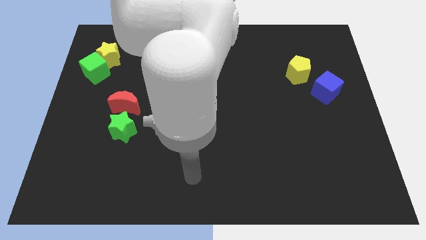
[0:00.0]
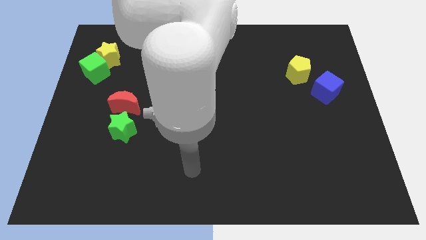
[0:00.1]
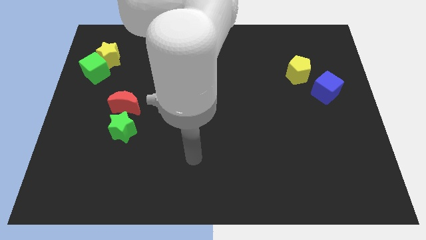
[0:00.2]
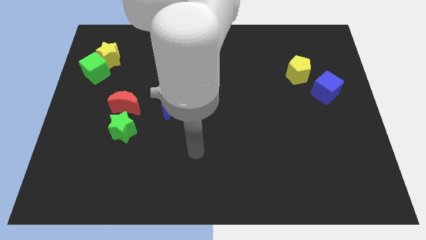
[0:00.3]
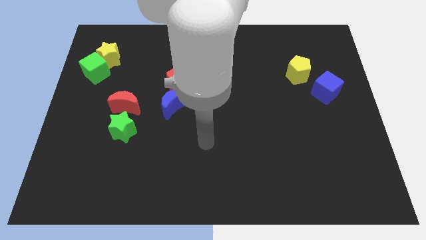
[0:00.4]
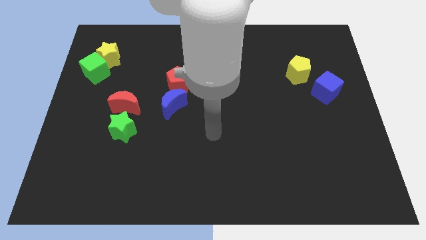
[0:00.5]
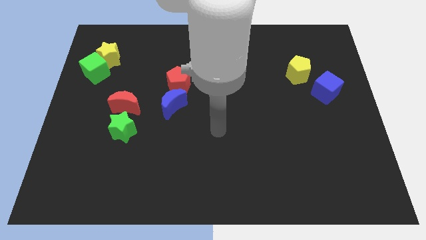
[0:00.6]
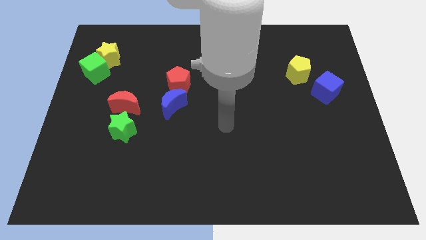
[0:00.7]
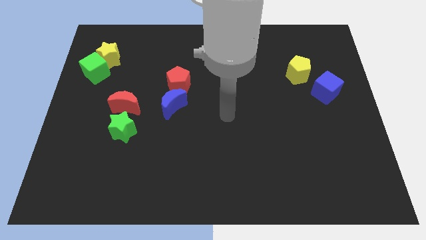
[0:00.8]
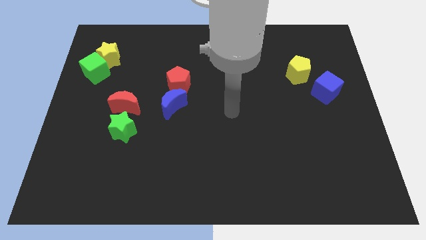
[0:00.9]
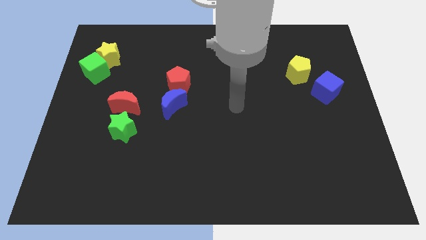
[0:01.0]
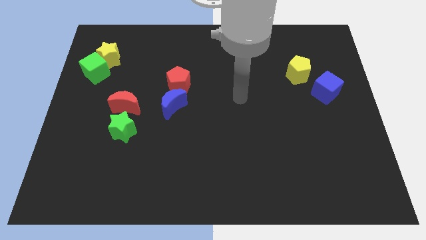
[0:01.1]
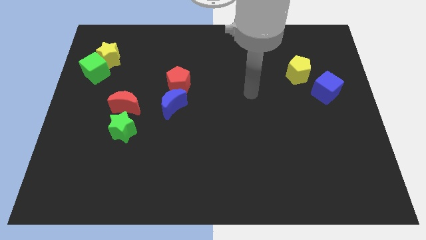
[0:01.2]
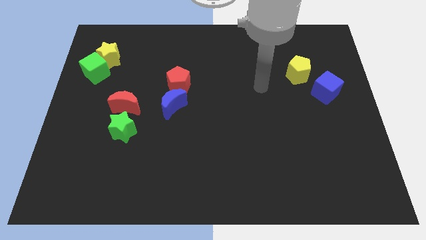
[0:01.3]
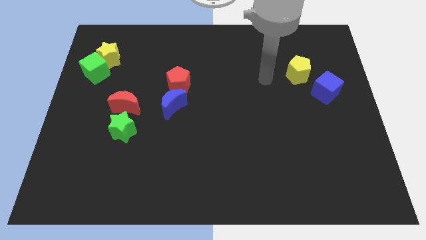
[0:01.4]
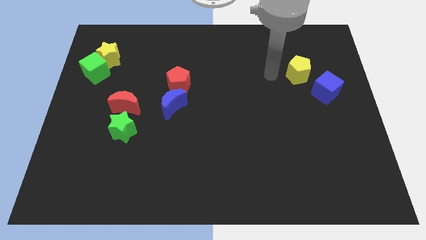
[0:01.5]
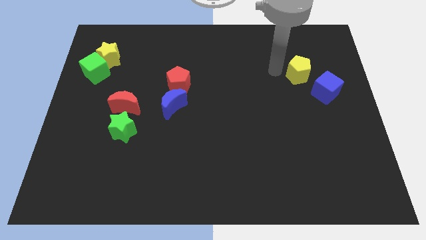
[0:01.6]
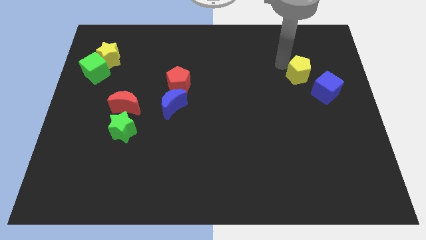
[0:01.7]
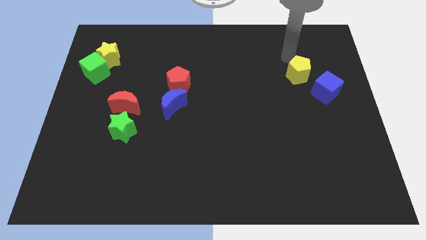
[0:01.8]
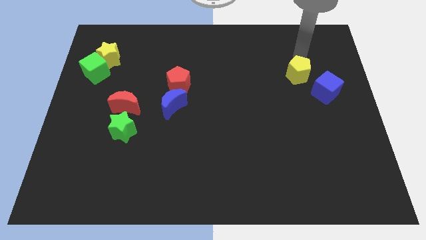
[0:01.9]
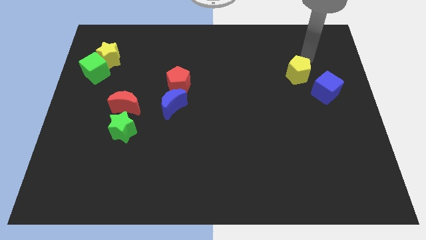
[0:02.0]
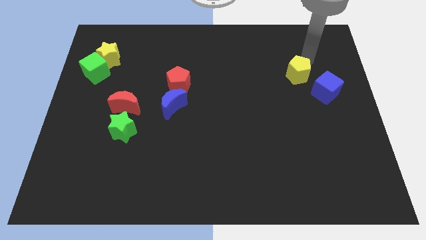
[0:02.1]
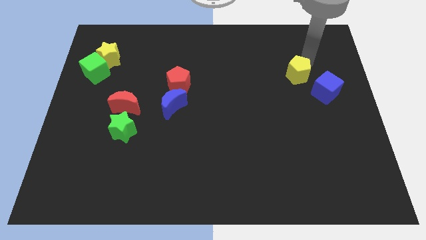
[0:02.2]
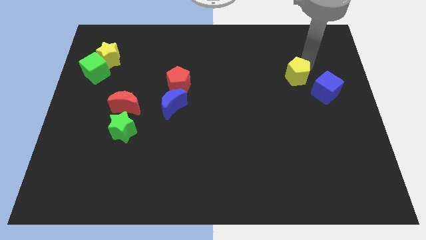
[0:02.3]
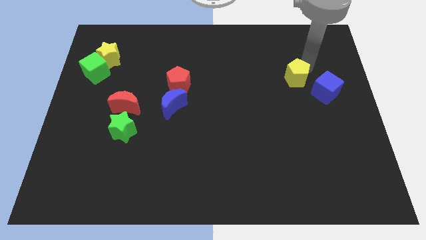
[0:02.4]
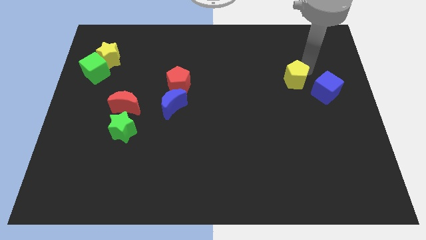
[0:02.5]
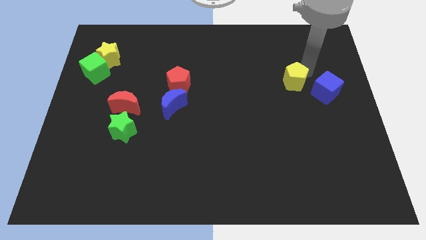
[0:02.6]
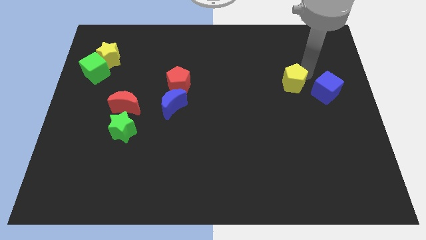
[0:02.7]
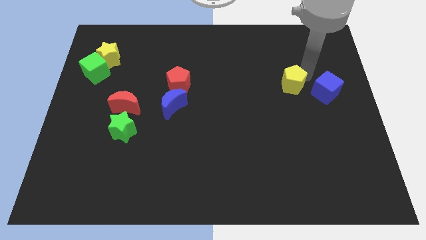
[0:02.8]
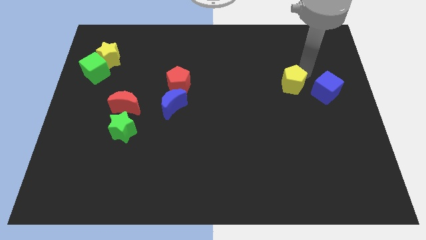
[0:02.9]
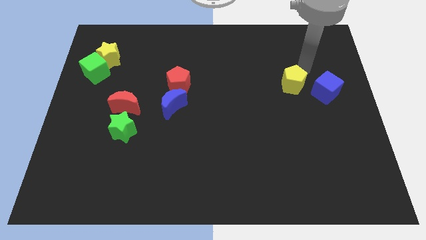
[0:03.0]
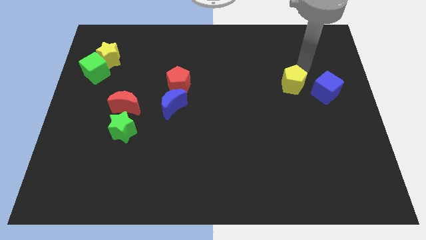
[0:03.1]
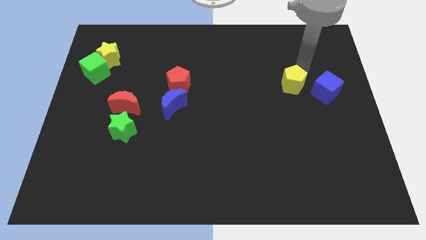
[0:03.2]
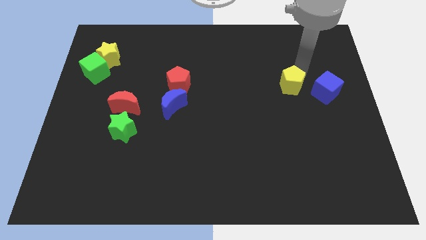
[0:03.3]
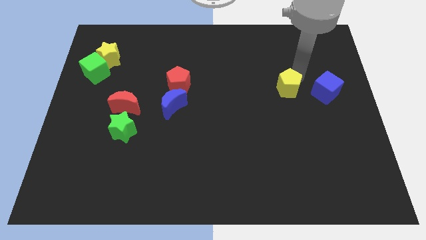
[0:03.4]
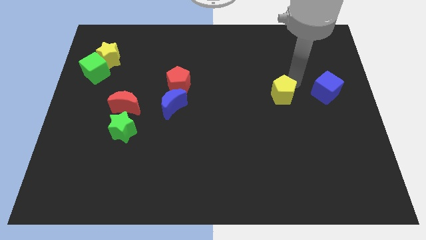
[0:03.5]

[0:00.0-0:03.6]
push the yellow pentagon somewhat down and left diagonally

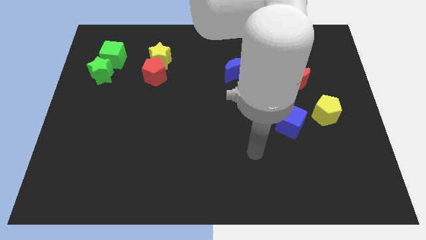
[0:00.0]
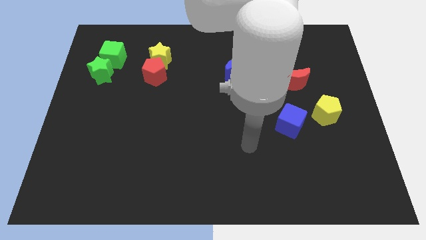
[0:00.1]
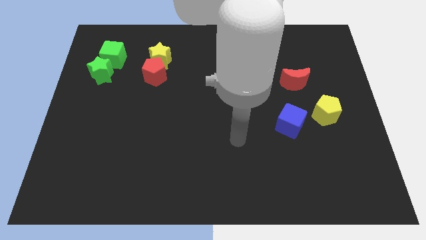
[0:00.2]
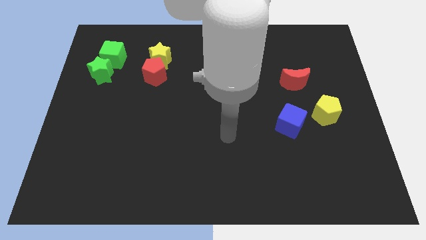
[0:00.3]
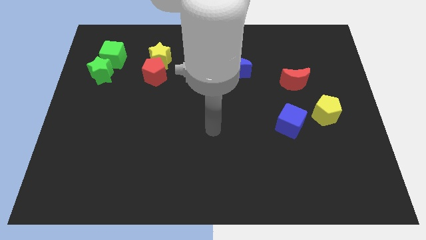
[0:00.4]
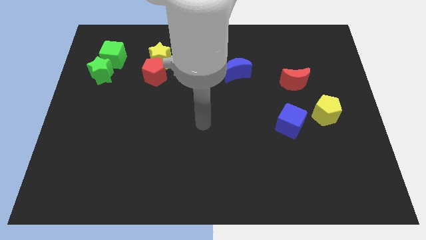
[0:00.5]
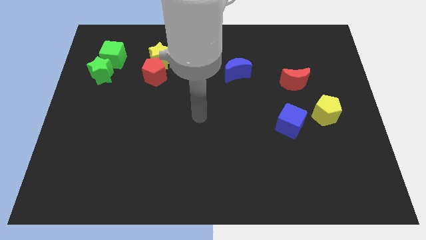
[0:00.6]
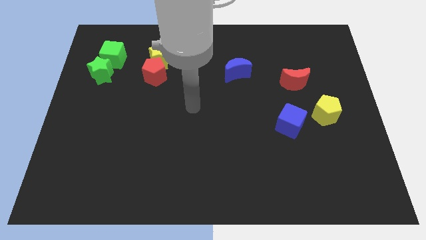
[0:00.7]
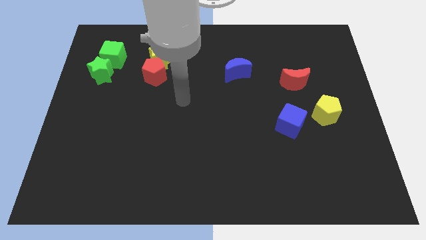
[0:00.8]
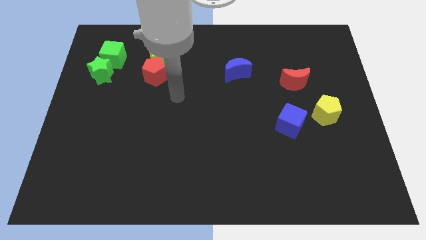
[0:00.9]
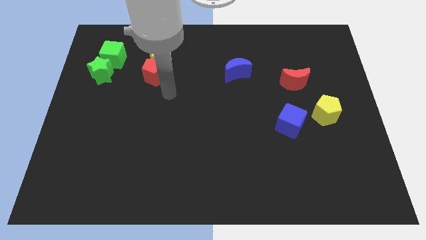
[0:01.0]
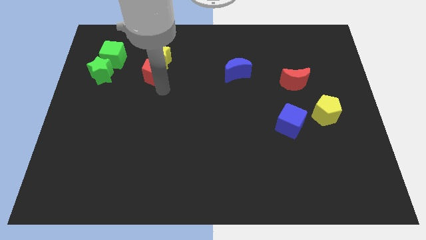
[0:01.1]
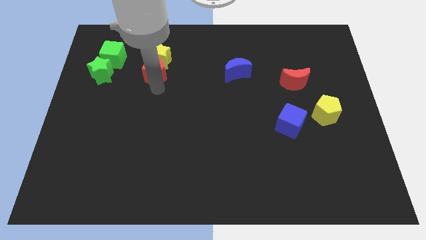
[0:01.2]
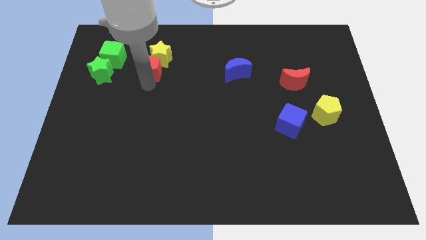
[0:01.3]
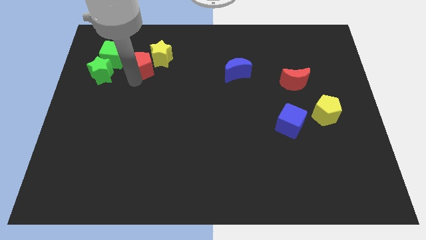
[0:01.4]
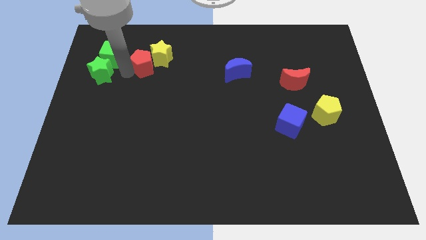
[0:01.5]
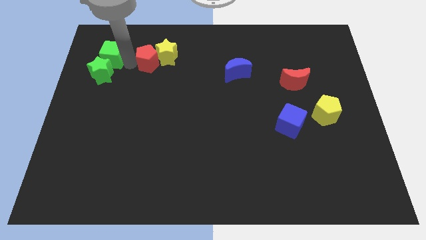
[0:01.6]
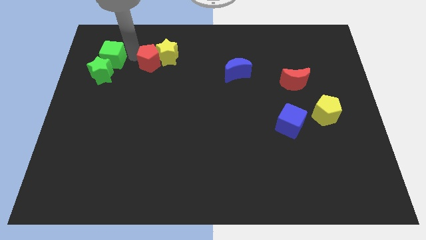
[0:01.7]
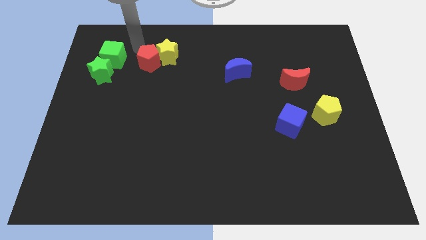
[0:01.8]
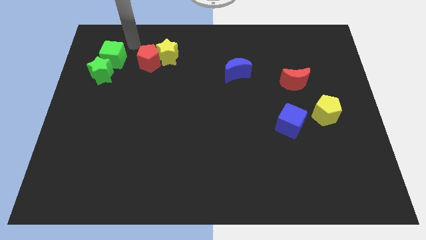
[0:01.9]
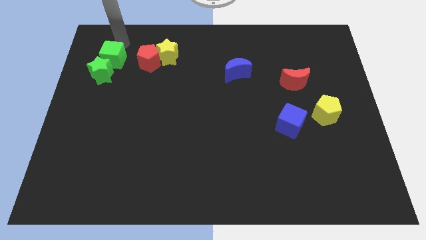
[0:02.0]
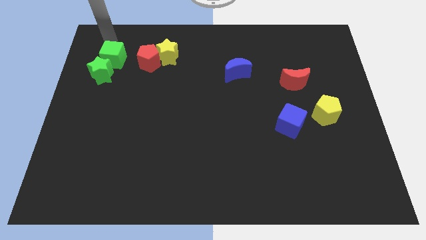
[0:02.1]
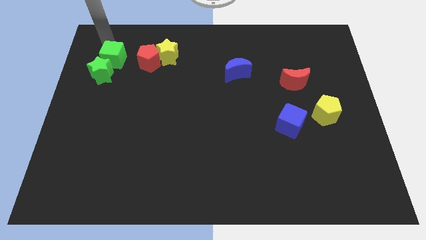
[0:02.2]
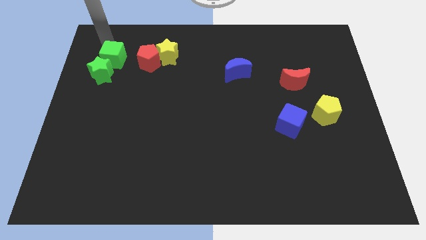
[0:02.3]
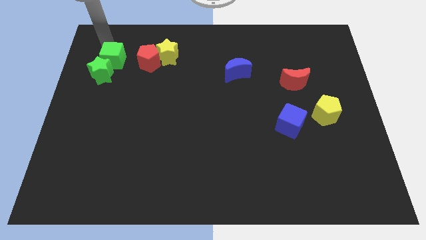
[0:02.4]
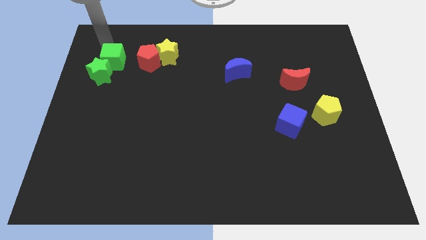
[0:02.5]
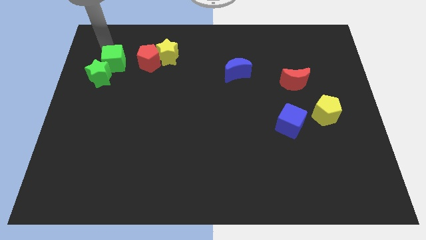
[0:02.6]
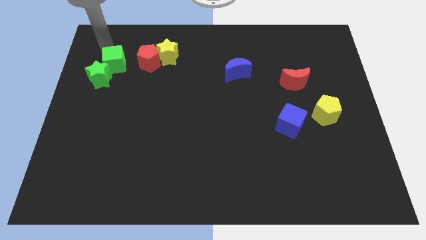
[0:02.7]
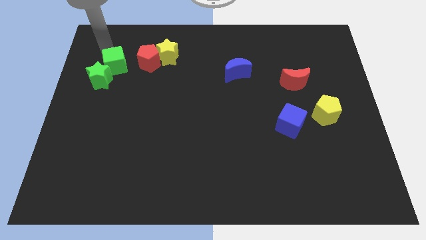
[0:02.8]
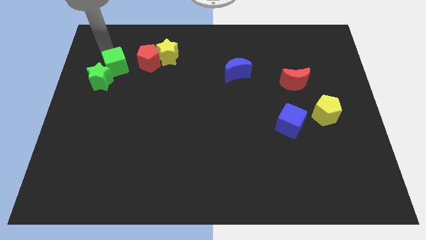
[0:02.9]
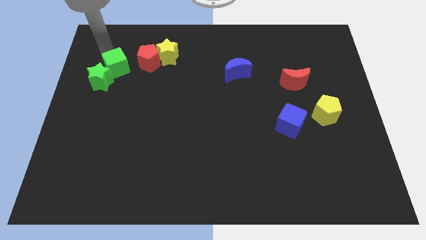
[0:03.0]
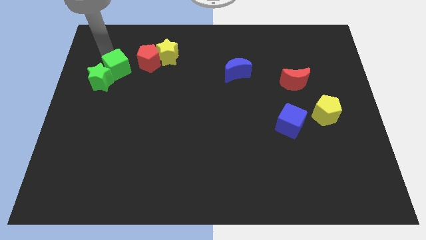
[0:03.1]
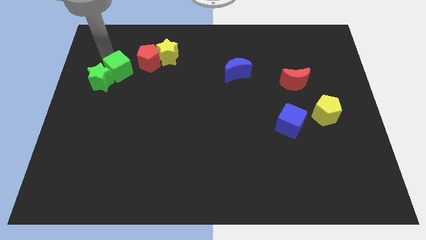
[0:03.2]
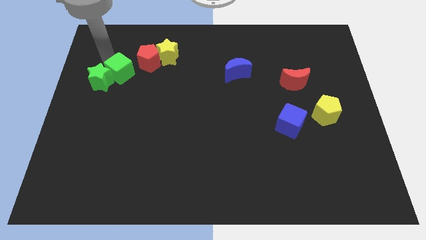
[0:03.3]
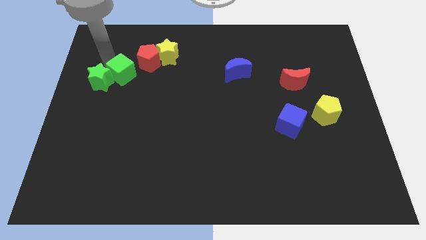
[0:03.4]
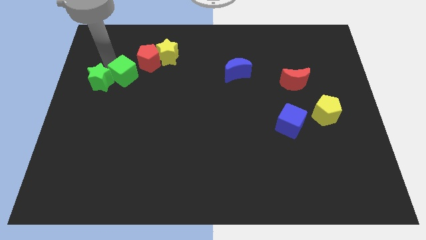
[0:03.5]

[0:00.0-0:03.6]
push the green cube downwards and to the right diagonally a little bit

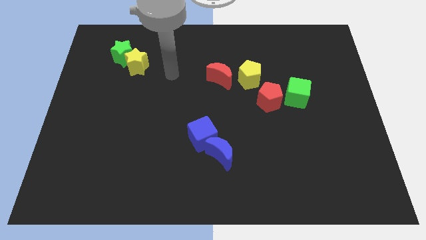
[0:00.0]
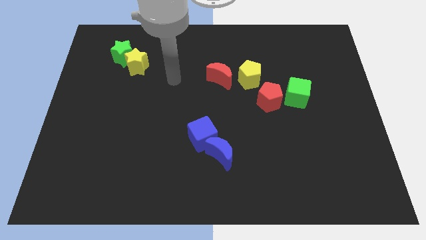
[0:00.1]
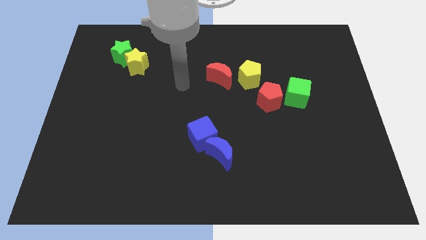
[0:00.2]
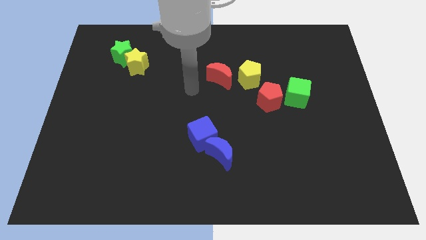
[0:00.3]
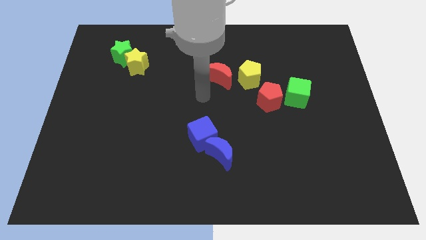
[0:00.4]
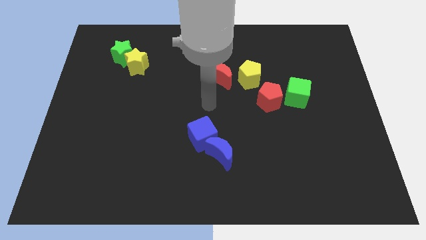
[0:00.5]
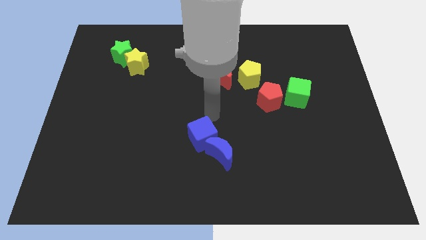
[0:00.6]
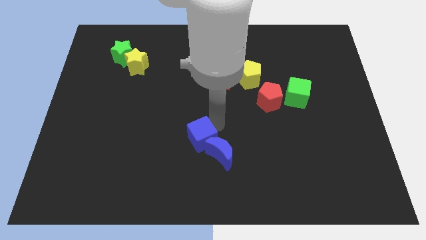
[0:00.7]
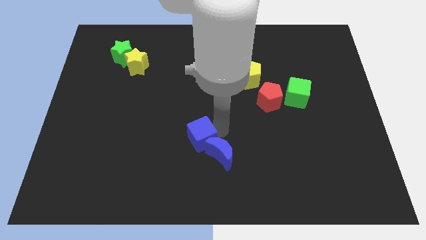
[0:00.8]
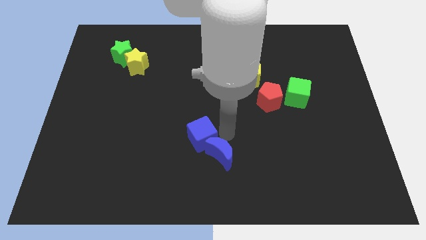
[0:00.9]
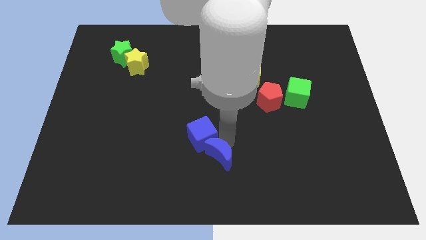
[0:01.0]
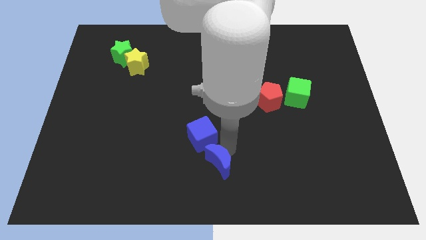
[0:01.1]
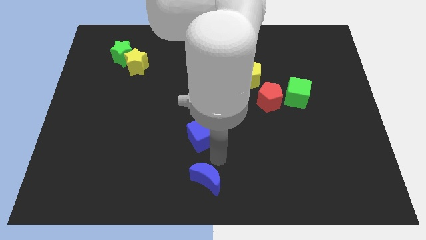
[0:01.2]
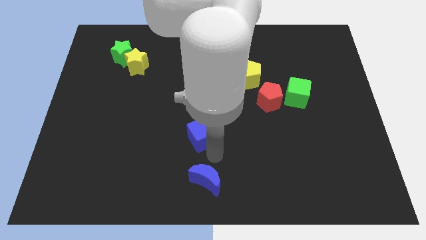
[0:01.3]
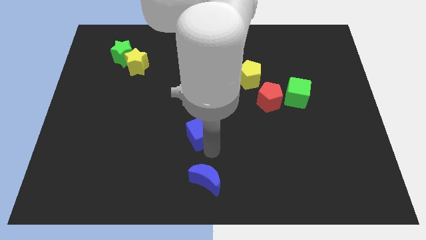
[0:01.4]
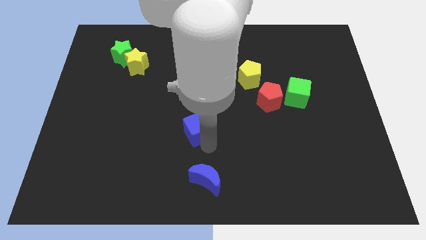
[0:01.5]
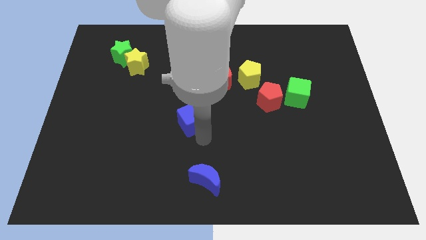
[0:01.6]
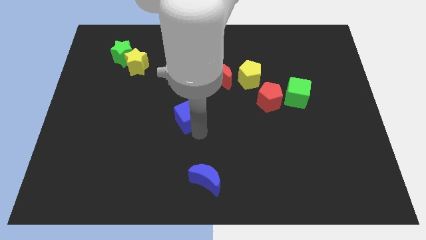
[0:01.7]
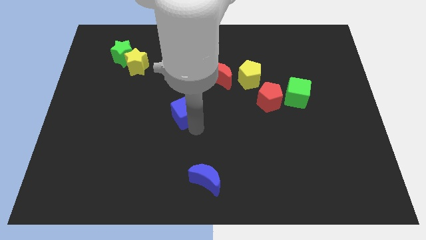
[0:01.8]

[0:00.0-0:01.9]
push the blue cube somewhat upwards and left
